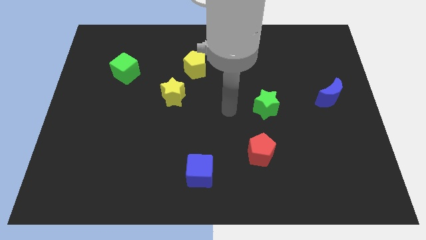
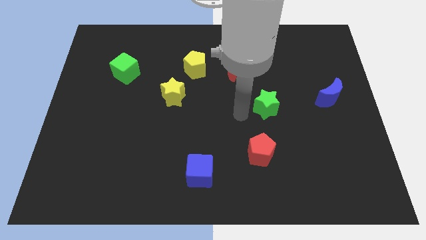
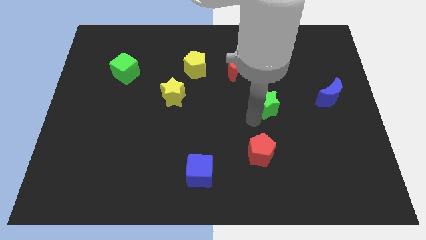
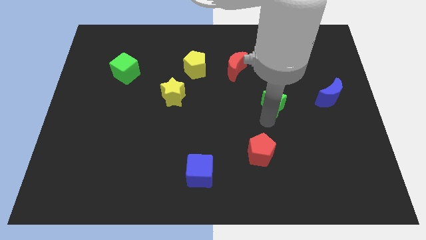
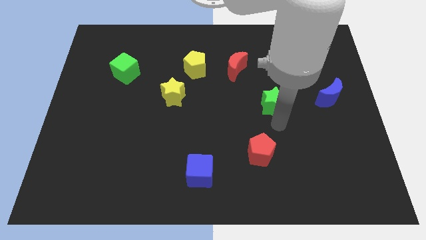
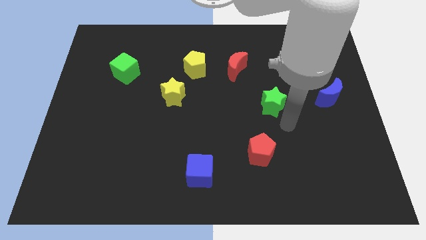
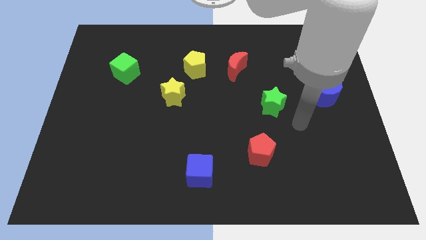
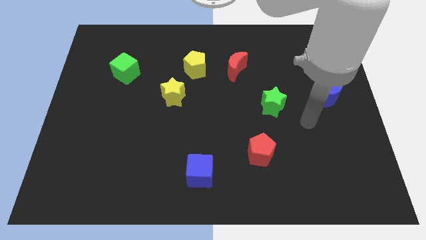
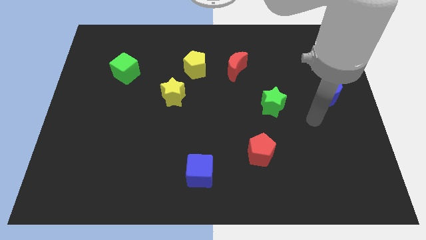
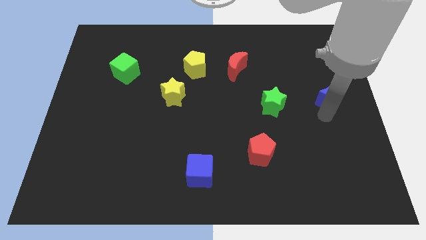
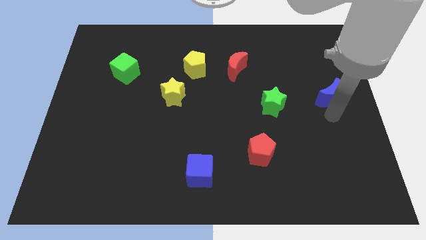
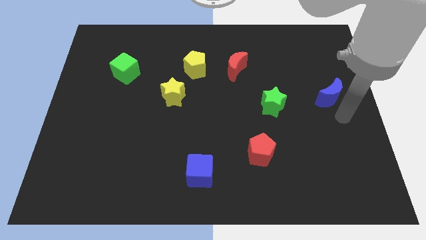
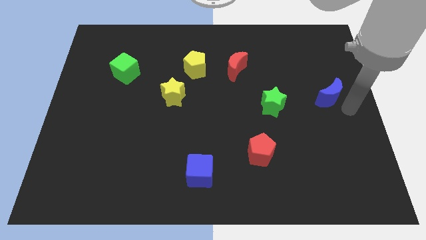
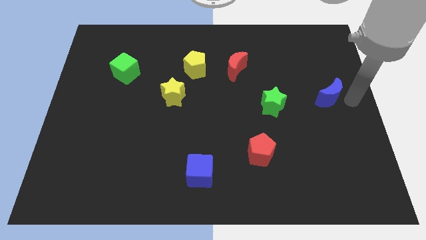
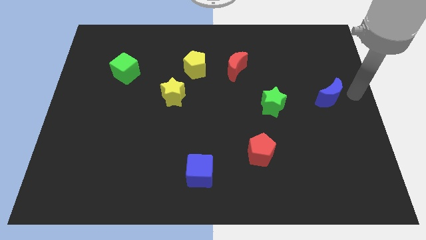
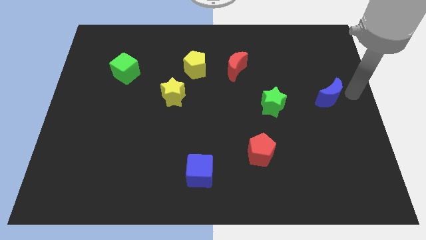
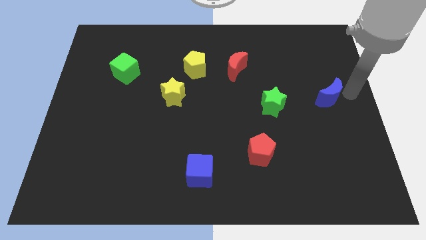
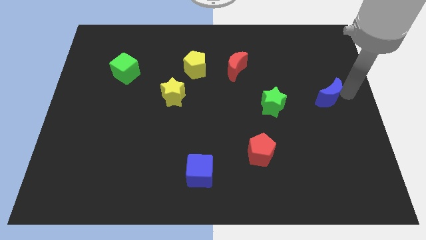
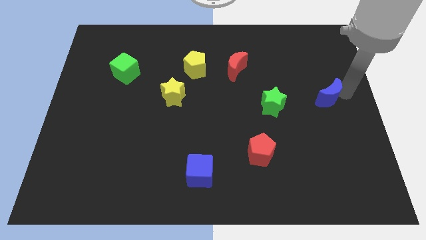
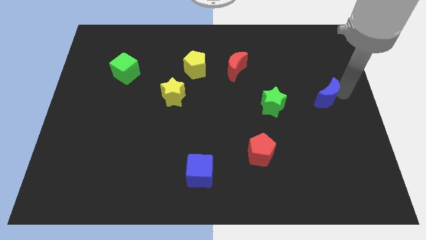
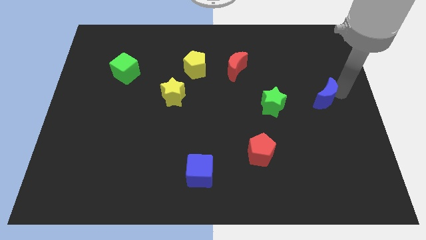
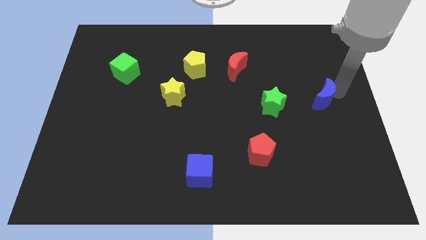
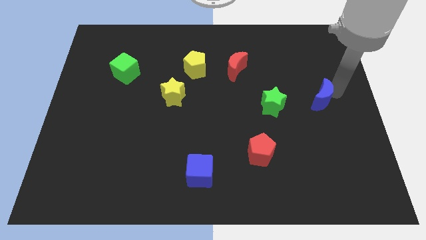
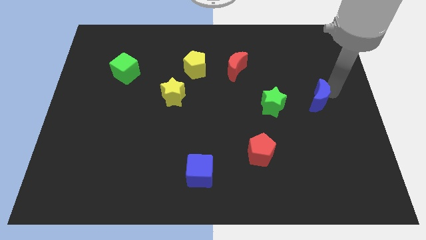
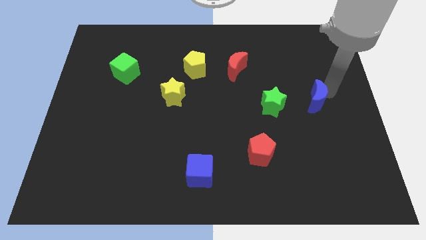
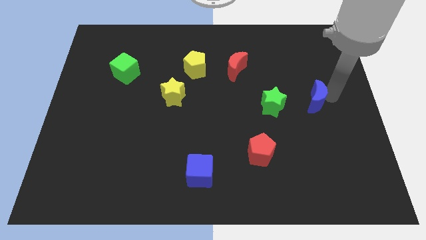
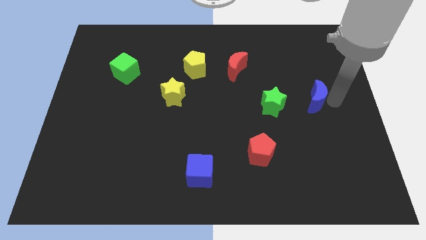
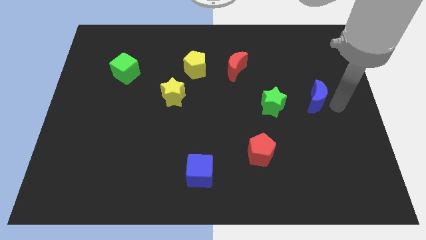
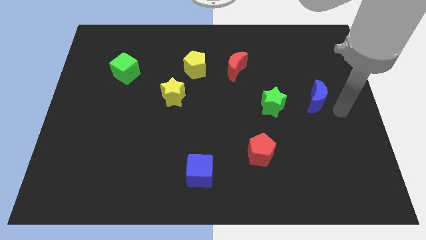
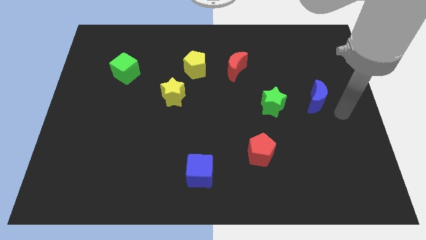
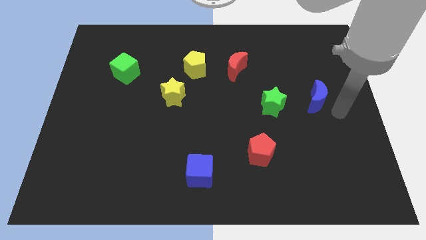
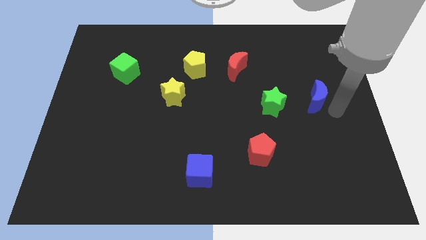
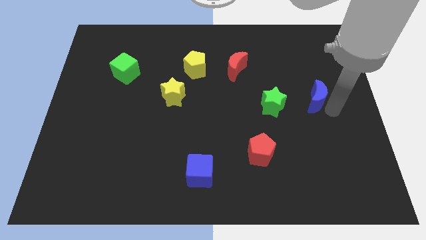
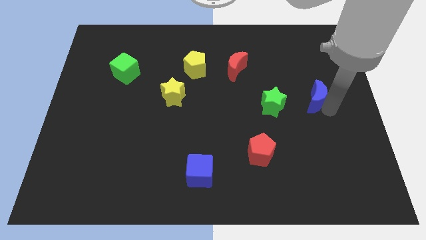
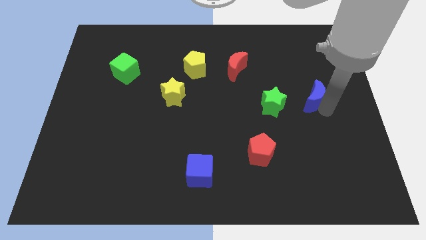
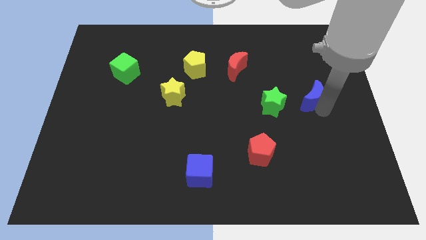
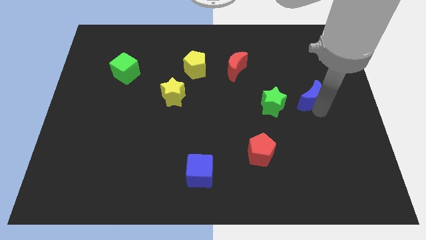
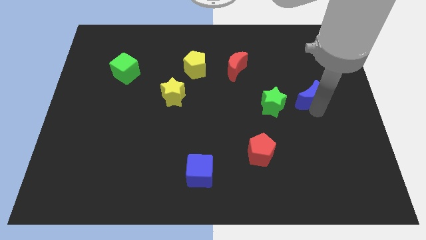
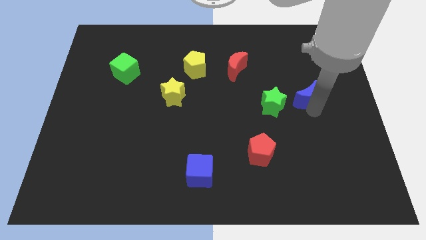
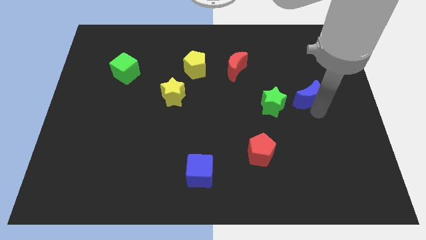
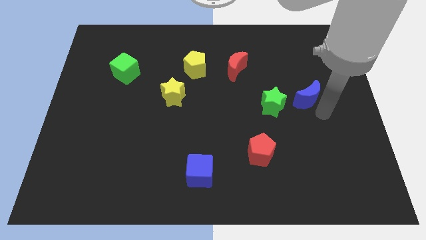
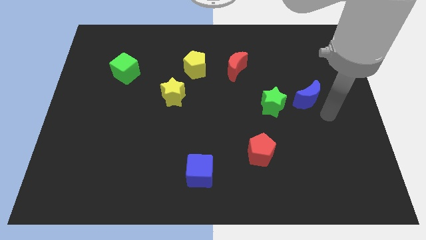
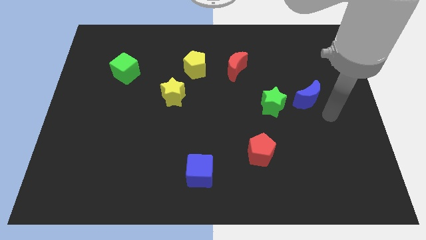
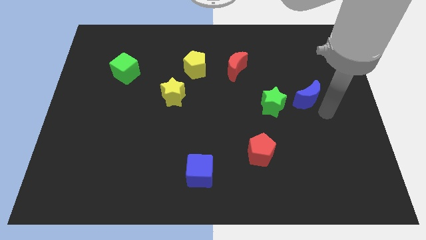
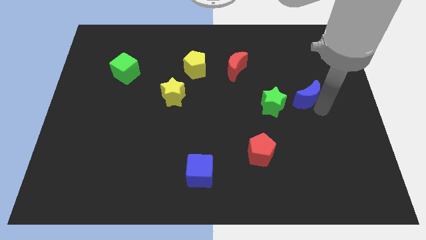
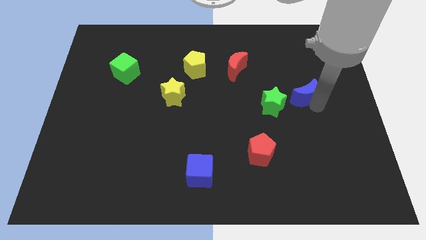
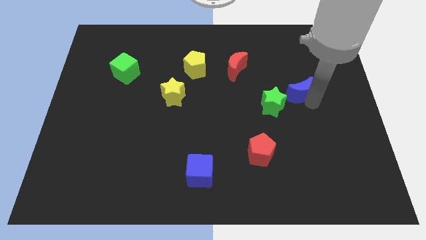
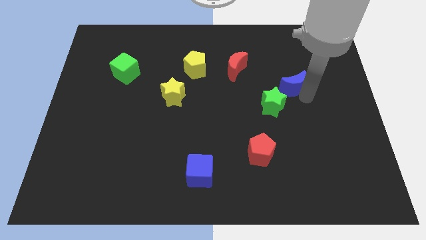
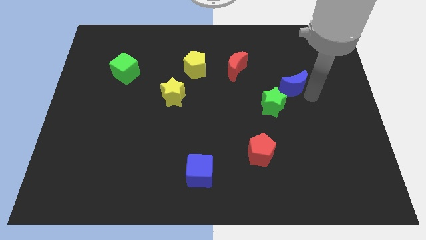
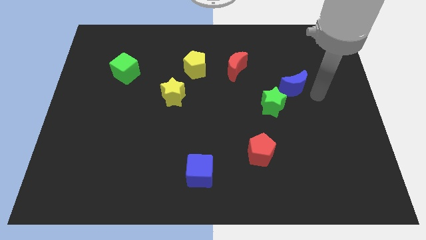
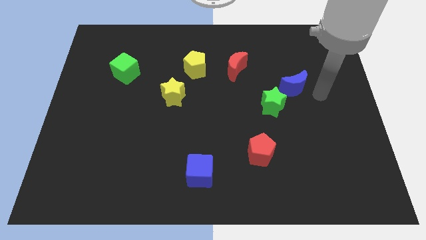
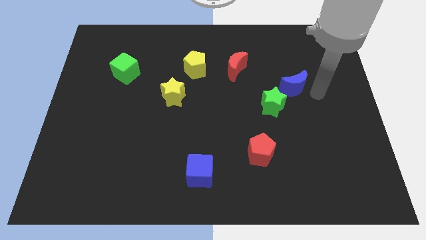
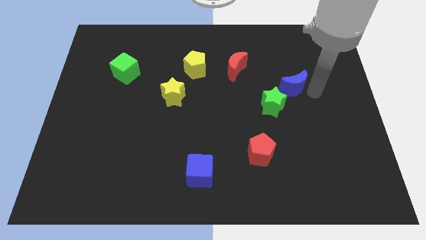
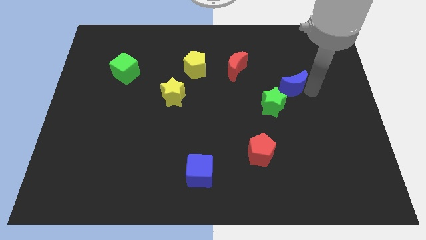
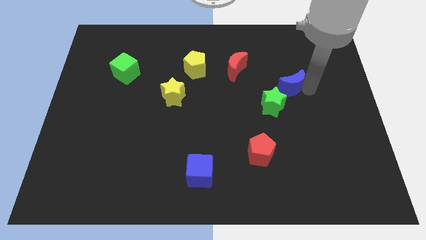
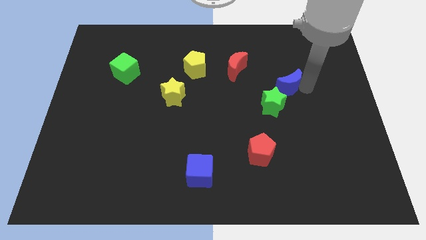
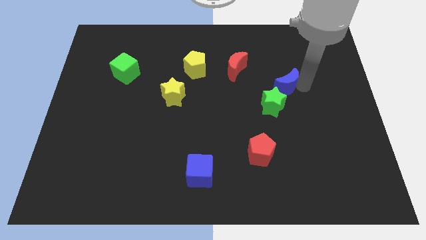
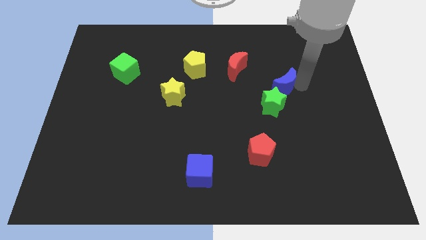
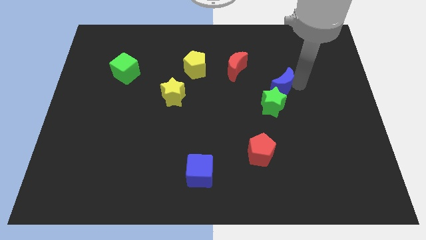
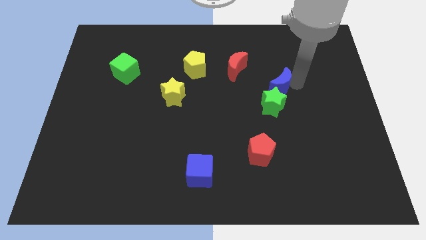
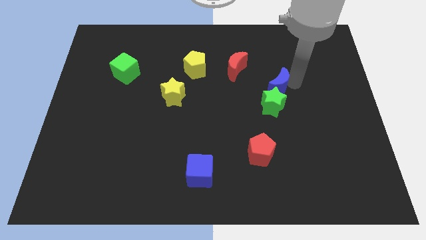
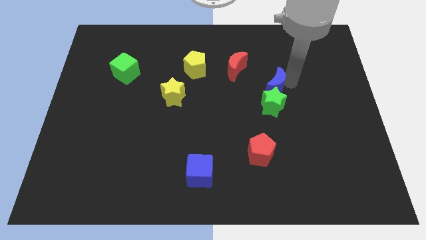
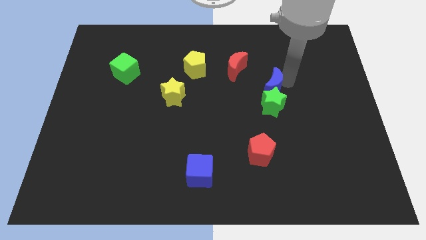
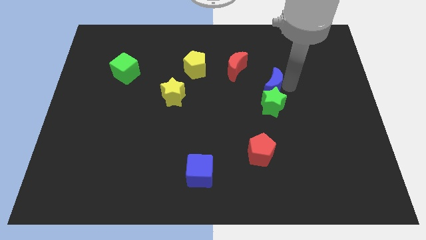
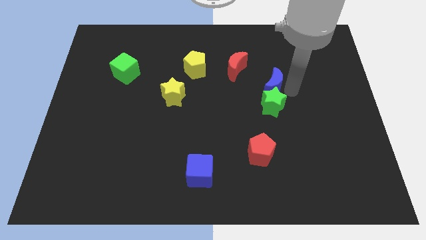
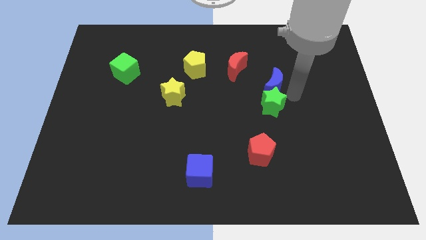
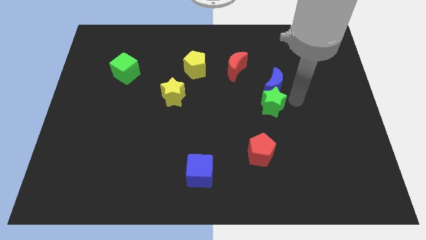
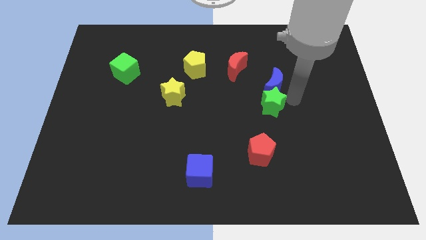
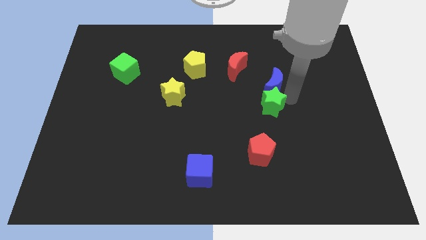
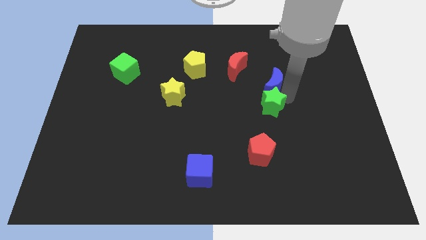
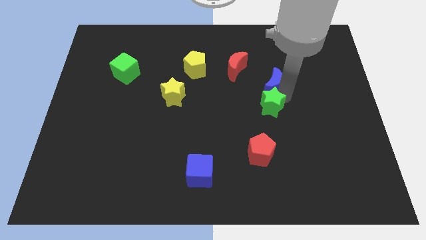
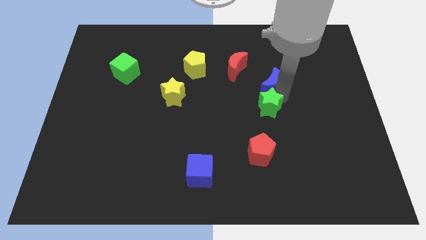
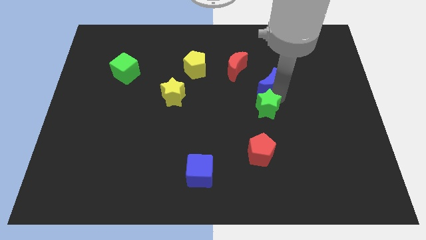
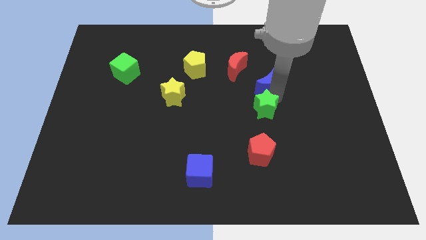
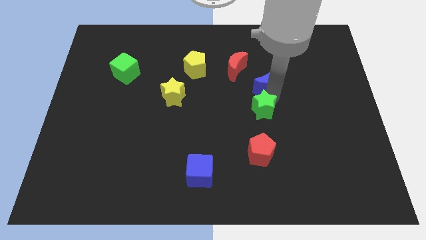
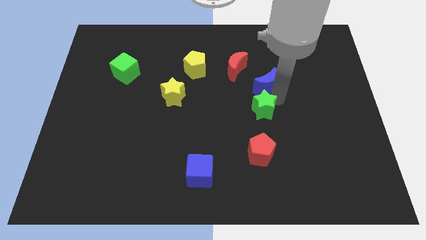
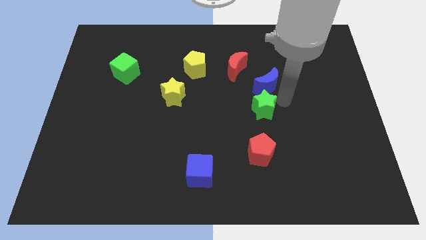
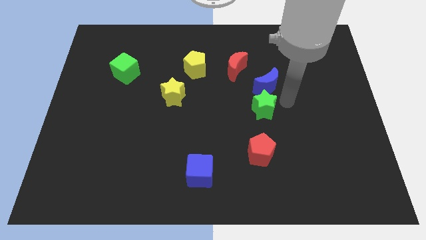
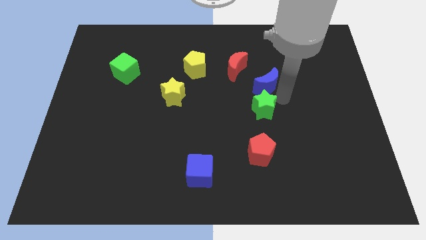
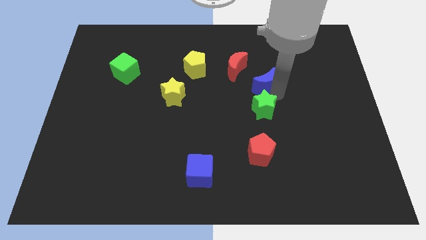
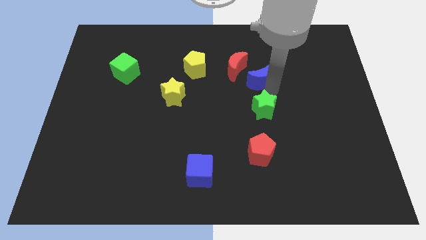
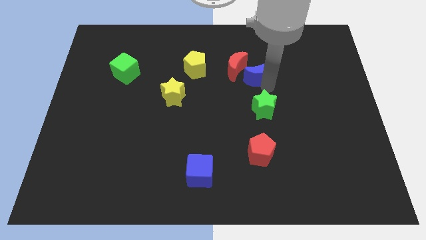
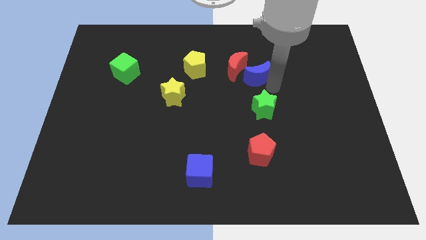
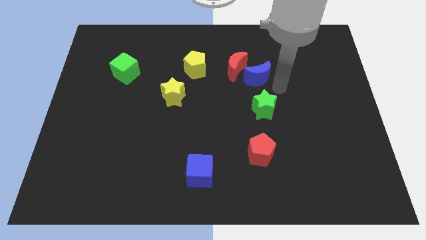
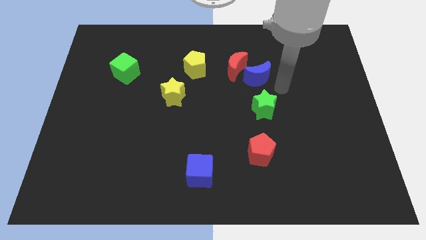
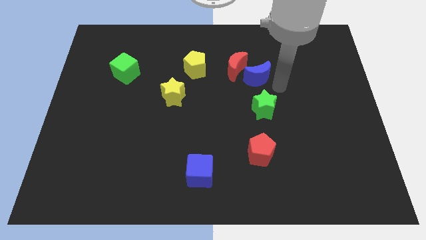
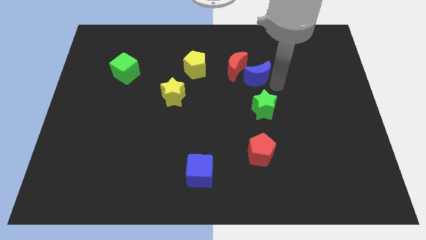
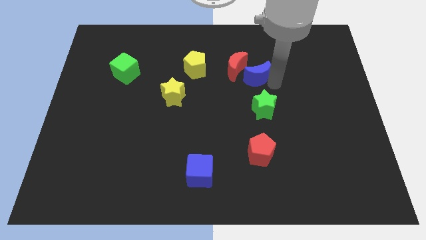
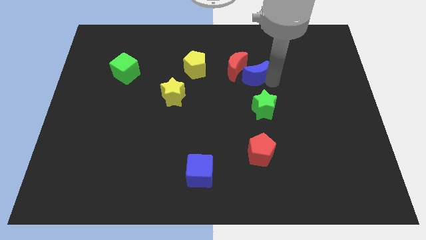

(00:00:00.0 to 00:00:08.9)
put the blue moon to the red moon
